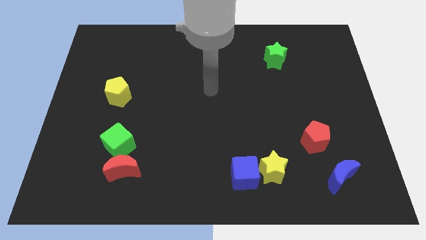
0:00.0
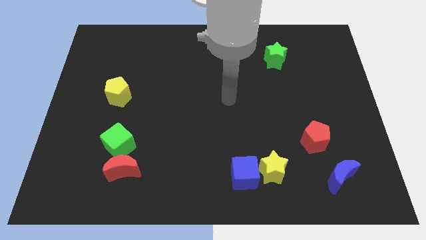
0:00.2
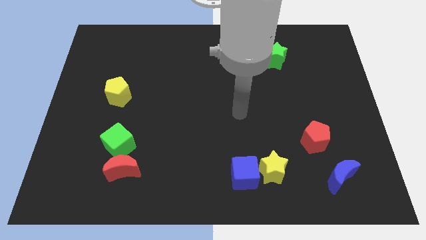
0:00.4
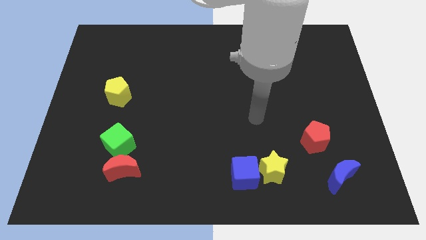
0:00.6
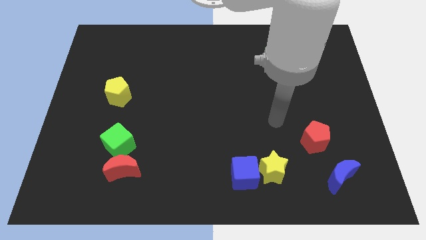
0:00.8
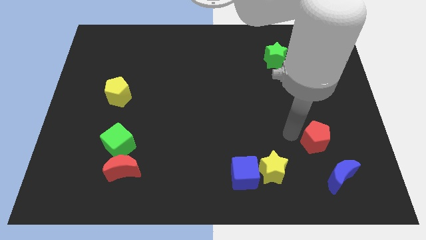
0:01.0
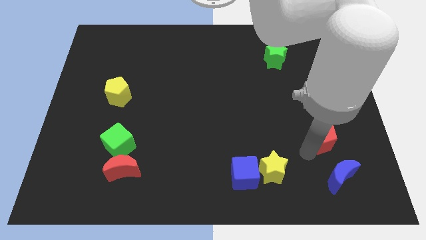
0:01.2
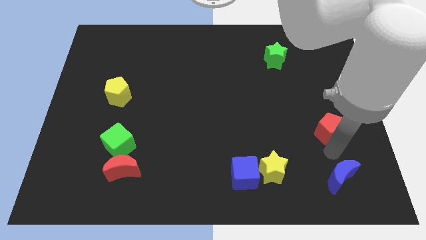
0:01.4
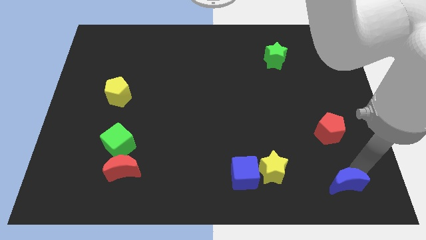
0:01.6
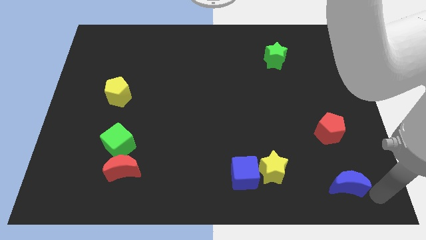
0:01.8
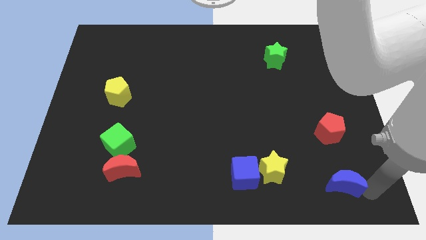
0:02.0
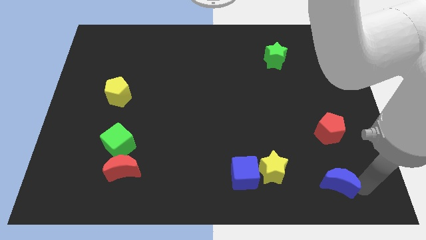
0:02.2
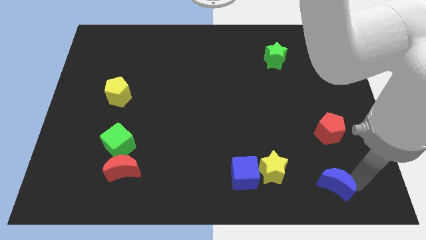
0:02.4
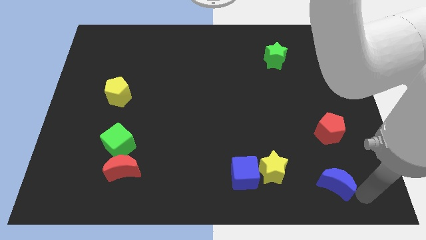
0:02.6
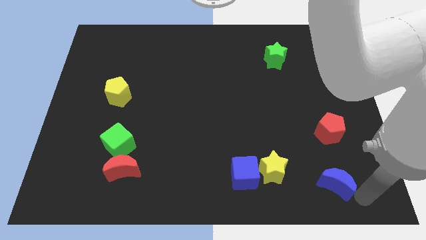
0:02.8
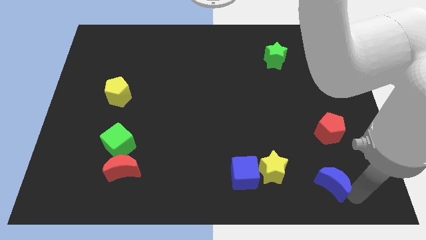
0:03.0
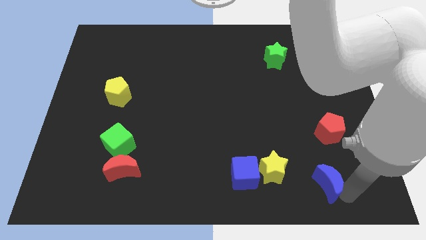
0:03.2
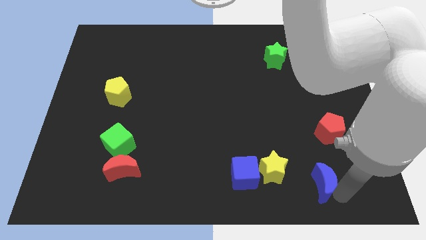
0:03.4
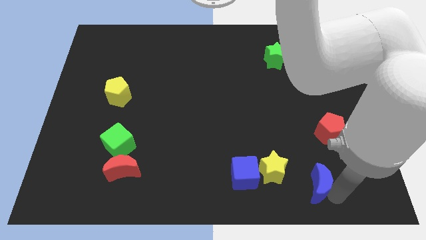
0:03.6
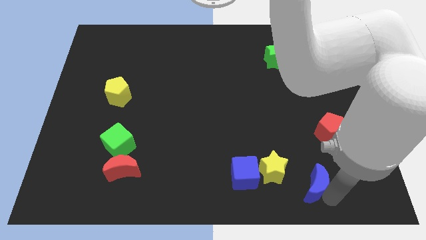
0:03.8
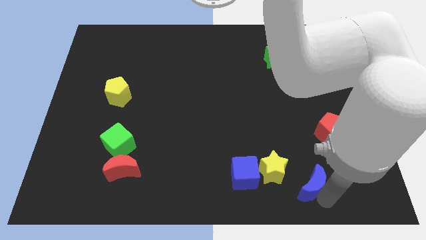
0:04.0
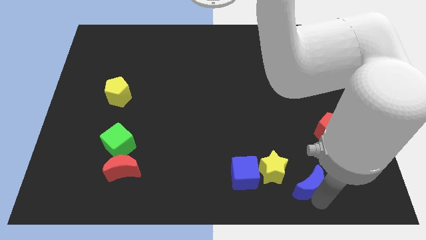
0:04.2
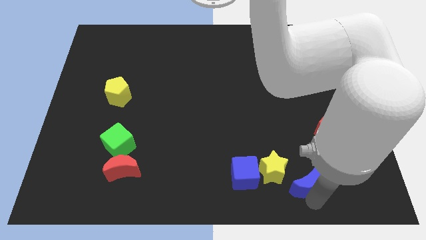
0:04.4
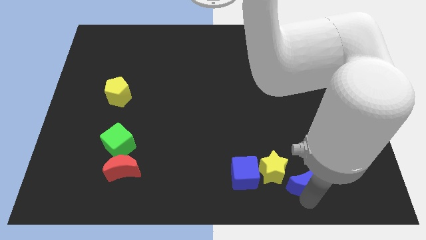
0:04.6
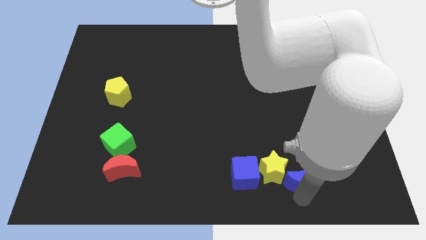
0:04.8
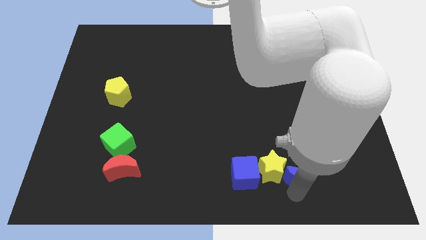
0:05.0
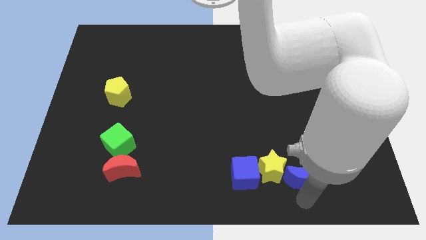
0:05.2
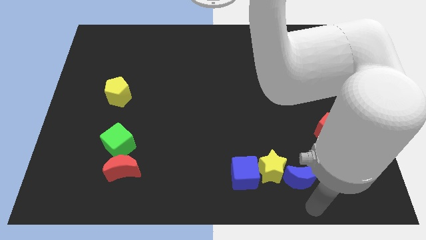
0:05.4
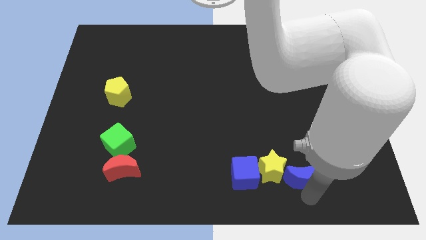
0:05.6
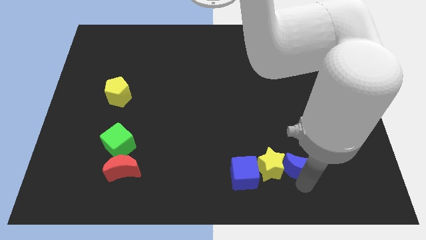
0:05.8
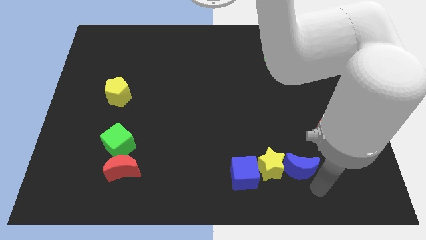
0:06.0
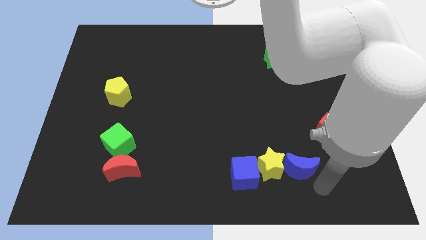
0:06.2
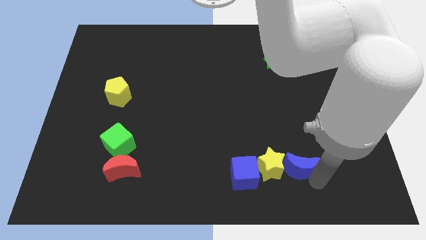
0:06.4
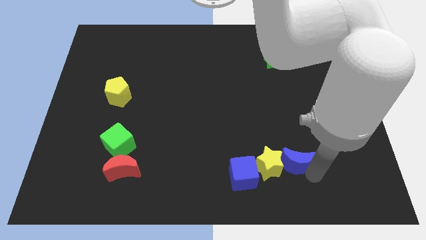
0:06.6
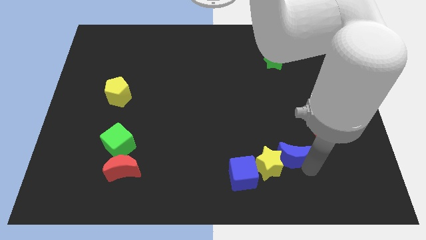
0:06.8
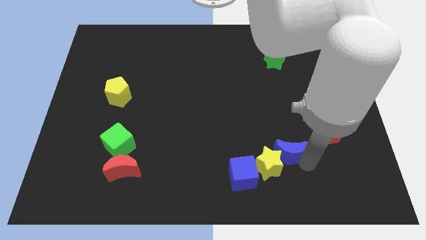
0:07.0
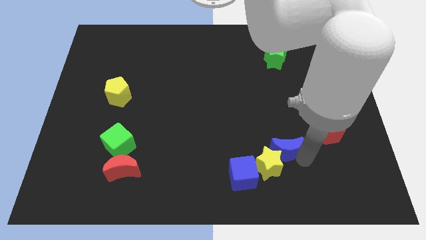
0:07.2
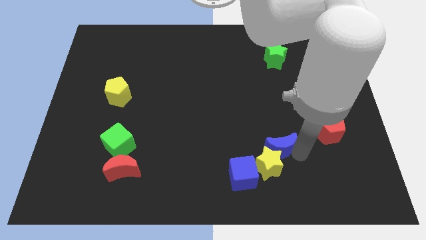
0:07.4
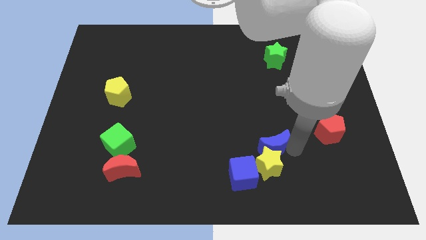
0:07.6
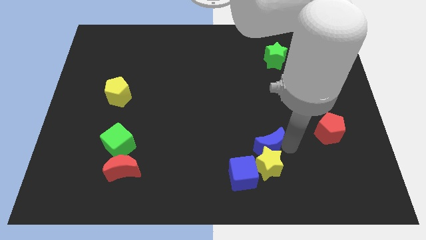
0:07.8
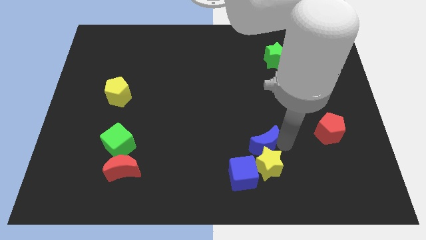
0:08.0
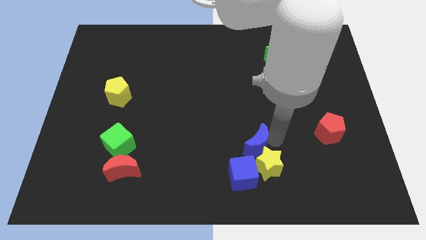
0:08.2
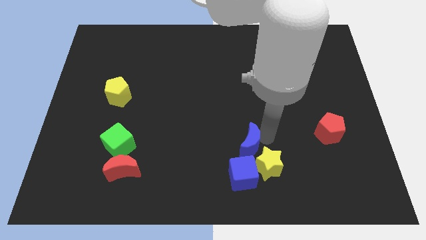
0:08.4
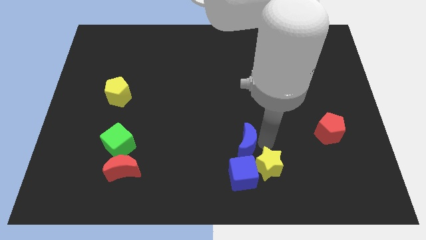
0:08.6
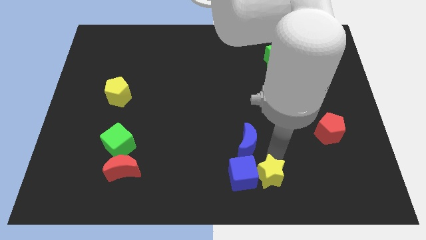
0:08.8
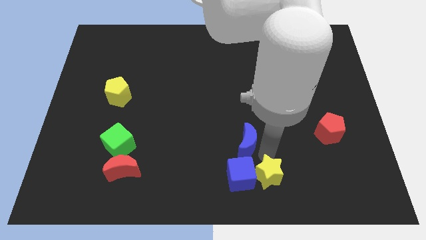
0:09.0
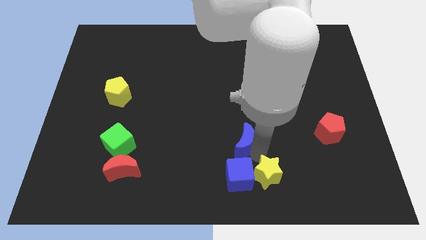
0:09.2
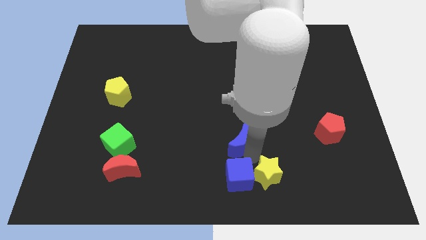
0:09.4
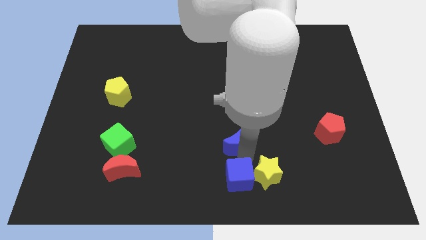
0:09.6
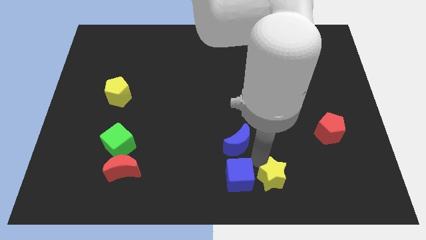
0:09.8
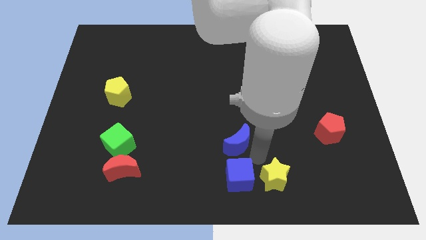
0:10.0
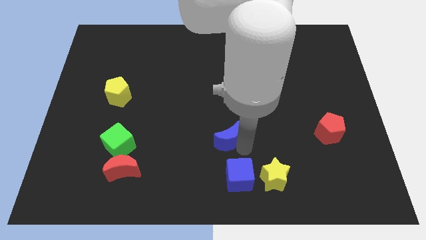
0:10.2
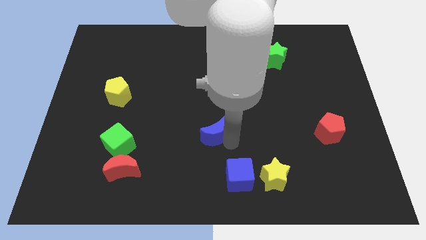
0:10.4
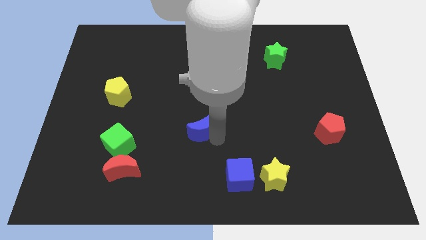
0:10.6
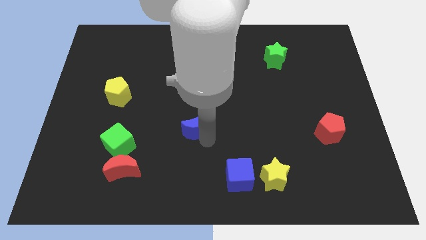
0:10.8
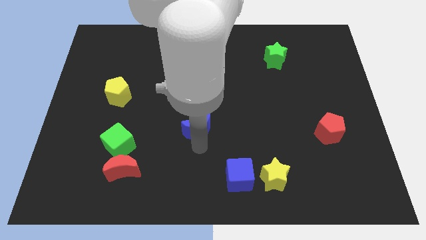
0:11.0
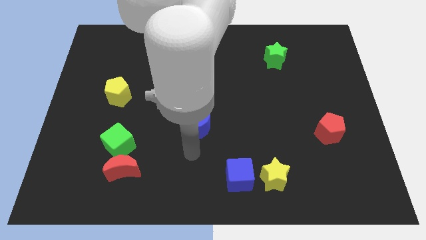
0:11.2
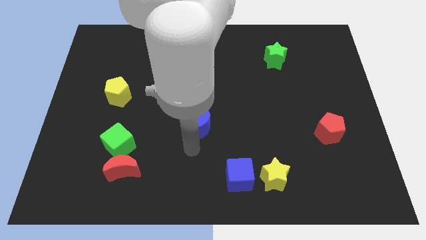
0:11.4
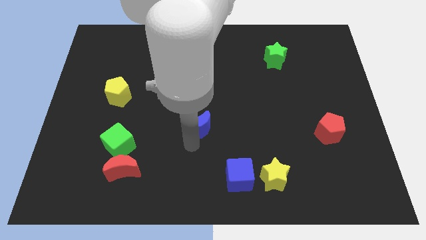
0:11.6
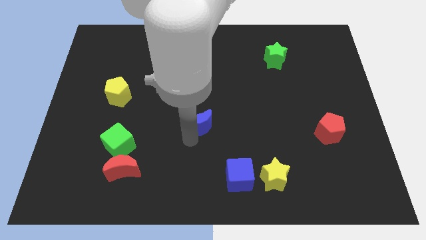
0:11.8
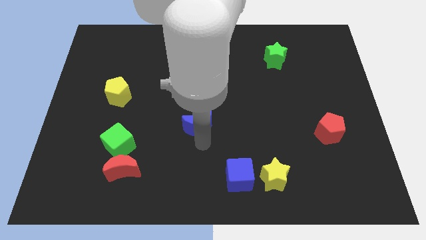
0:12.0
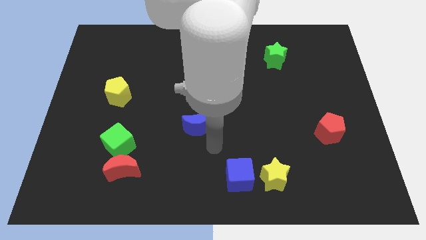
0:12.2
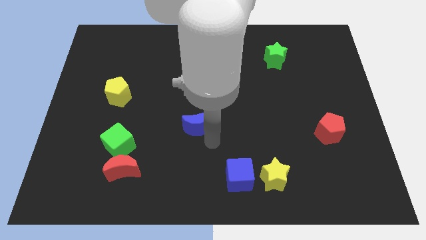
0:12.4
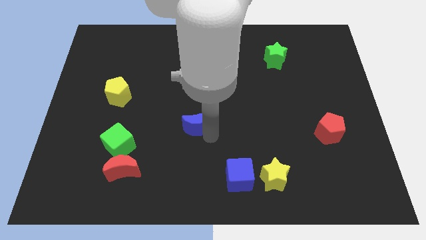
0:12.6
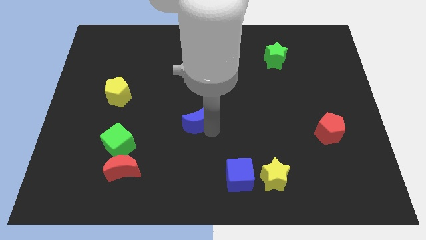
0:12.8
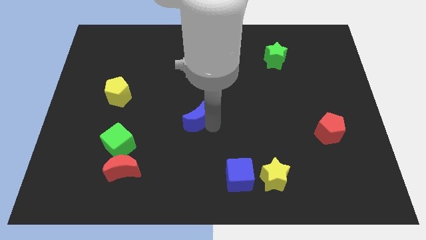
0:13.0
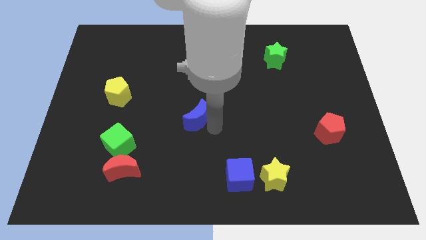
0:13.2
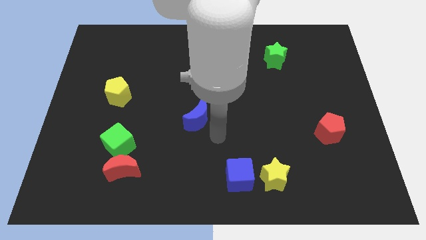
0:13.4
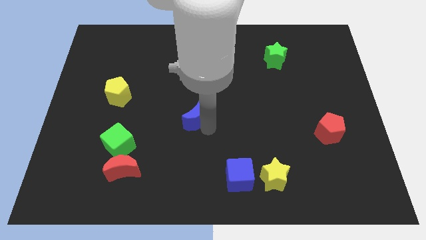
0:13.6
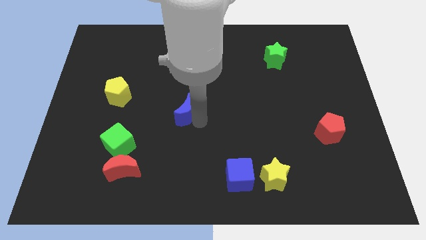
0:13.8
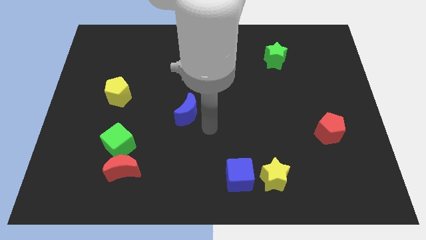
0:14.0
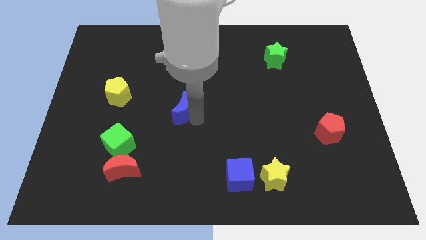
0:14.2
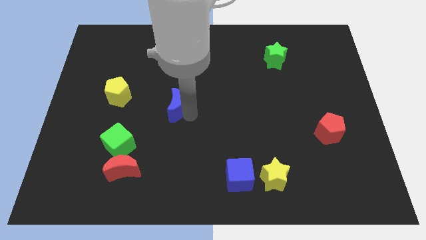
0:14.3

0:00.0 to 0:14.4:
push the blue moon right of the yellow pentagon
